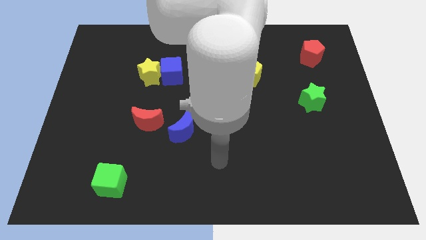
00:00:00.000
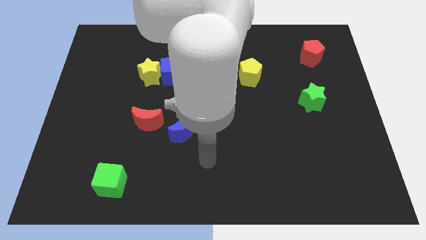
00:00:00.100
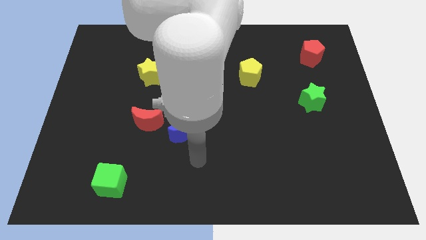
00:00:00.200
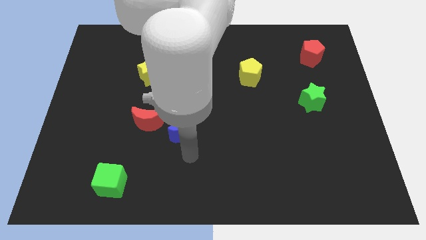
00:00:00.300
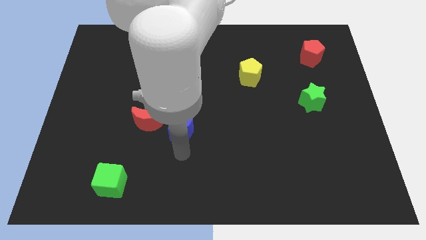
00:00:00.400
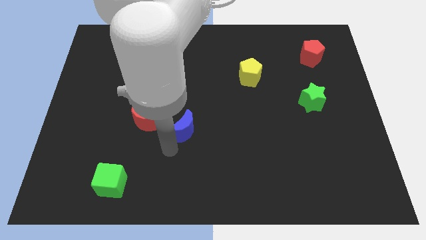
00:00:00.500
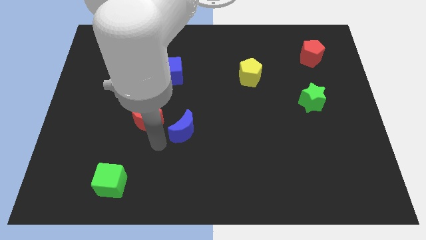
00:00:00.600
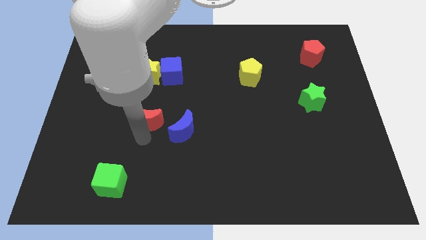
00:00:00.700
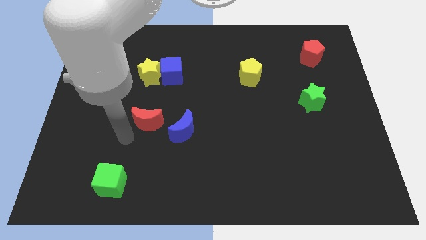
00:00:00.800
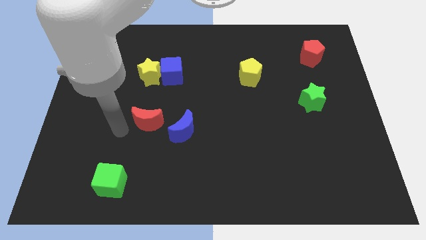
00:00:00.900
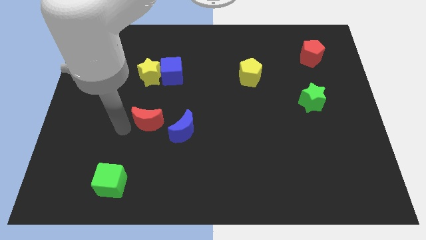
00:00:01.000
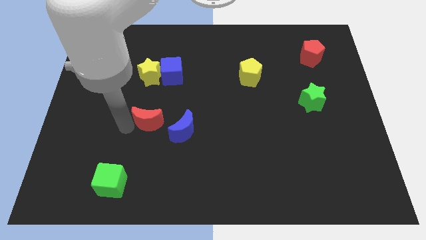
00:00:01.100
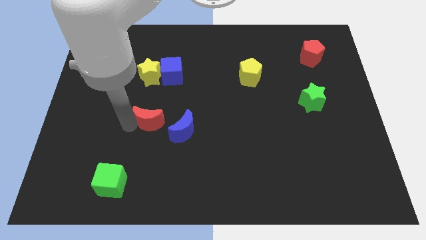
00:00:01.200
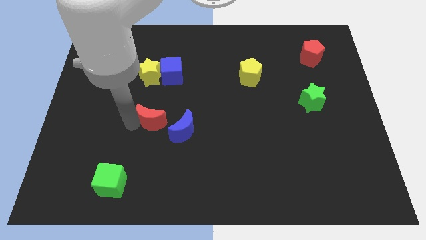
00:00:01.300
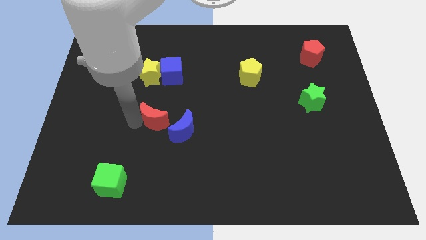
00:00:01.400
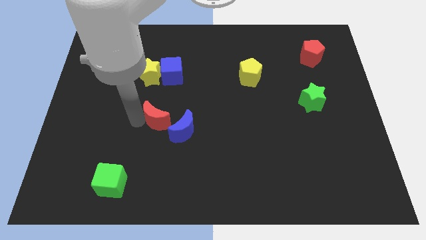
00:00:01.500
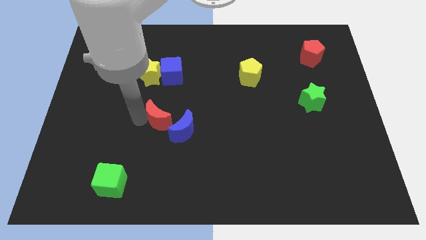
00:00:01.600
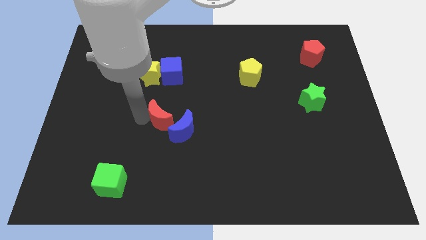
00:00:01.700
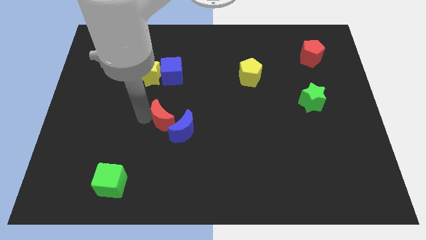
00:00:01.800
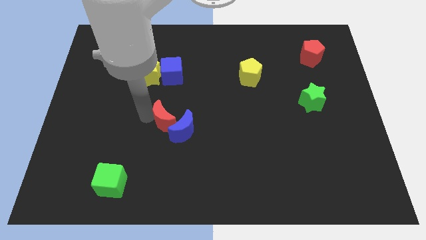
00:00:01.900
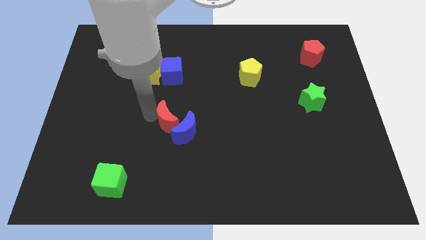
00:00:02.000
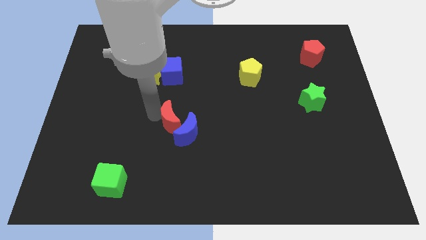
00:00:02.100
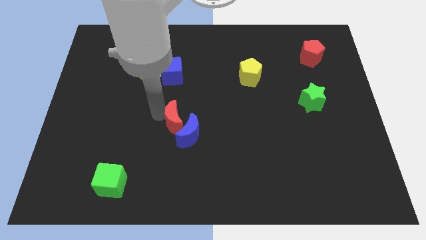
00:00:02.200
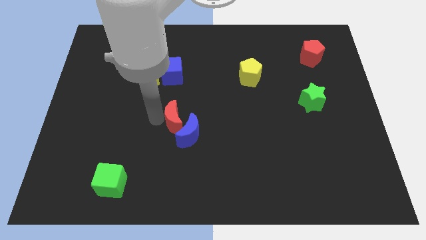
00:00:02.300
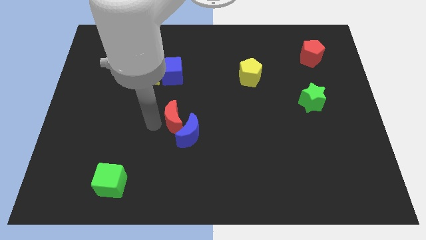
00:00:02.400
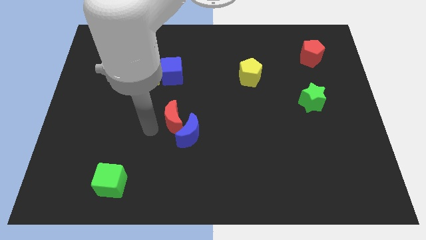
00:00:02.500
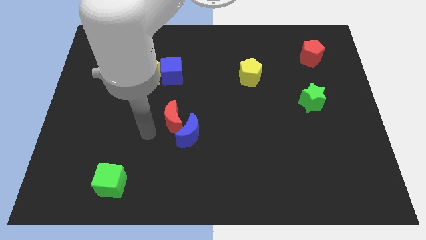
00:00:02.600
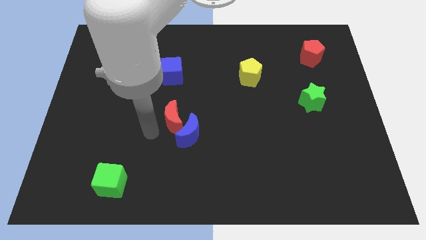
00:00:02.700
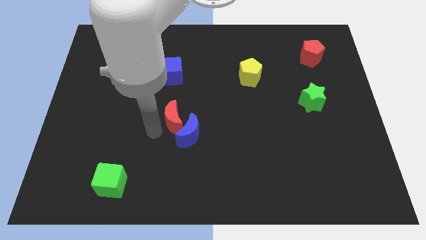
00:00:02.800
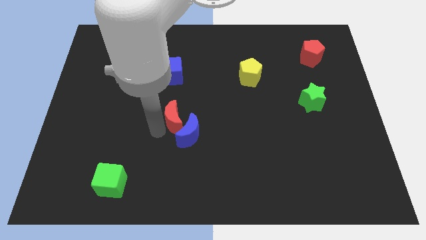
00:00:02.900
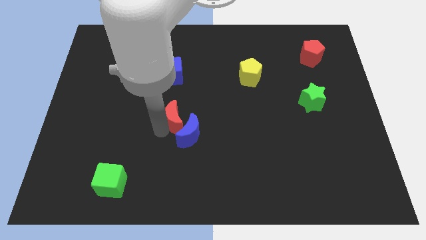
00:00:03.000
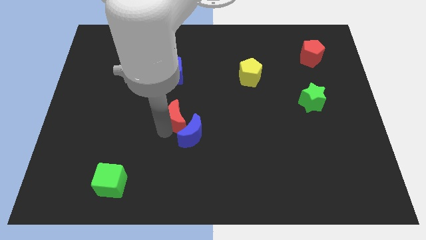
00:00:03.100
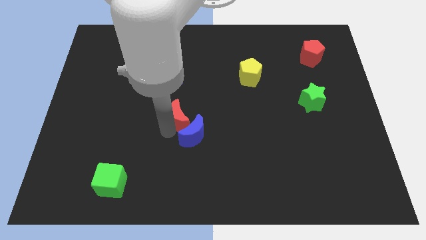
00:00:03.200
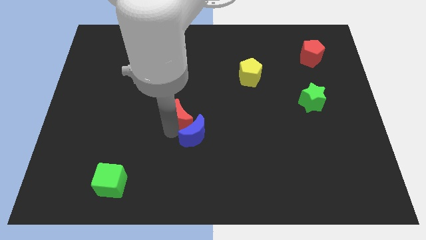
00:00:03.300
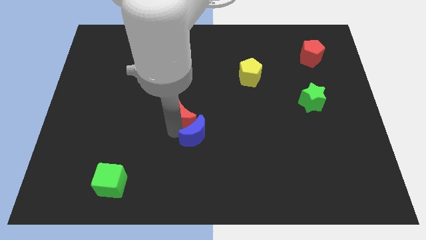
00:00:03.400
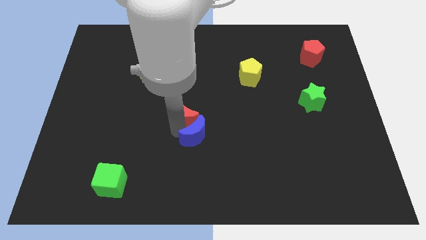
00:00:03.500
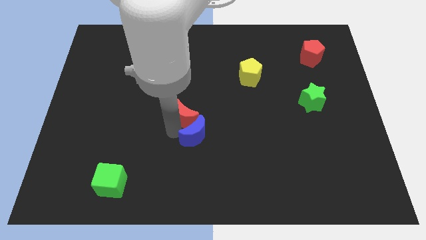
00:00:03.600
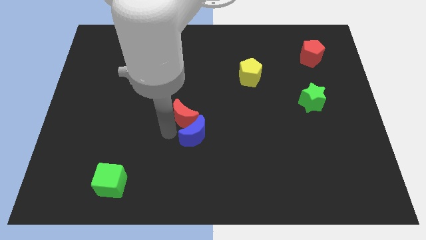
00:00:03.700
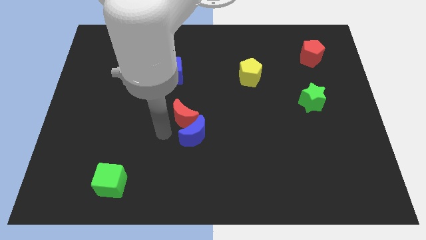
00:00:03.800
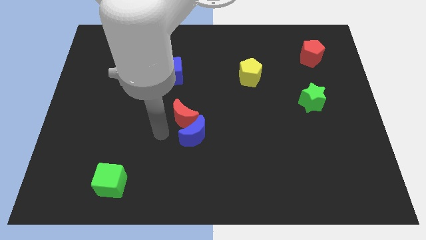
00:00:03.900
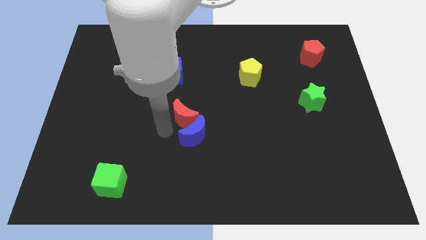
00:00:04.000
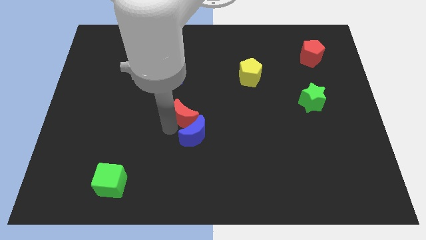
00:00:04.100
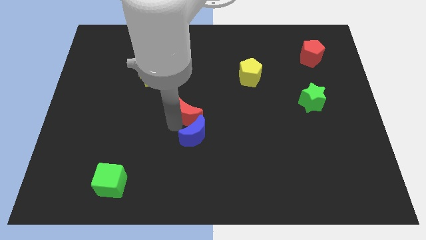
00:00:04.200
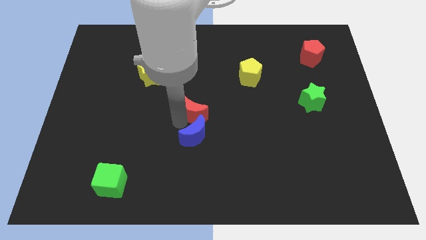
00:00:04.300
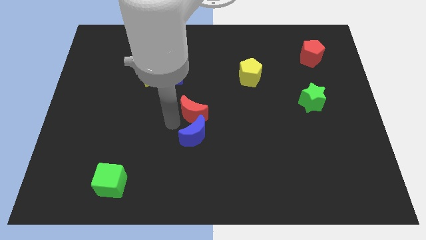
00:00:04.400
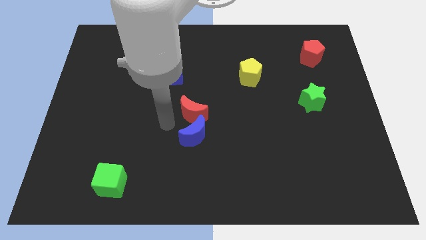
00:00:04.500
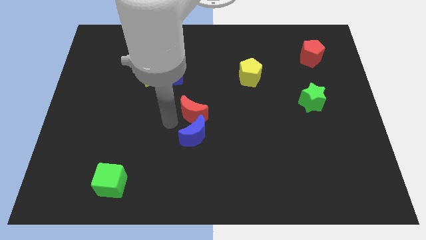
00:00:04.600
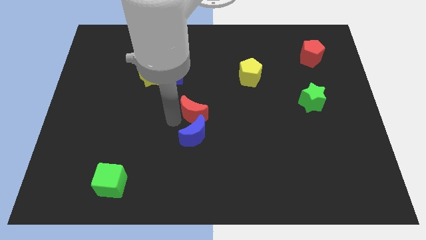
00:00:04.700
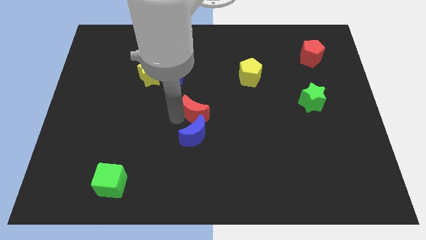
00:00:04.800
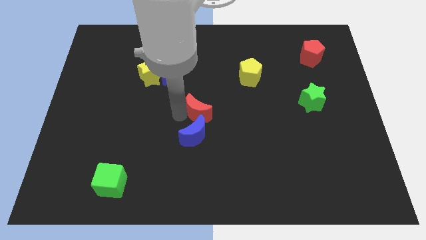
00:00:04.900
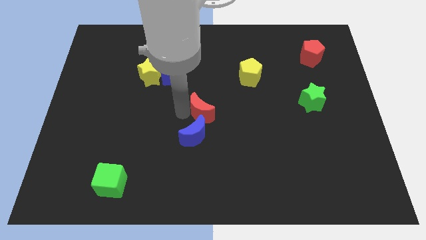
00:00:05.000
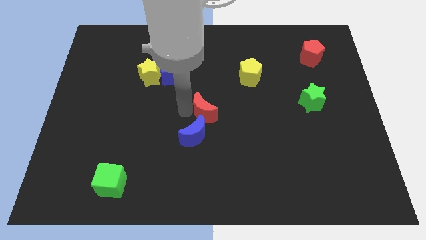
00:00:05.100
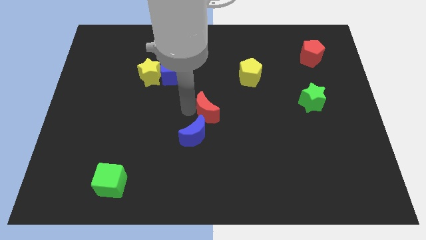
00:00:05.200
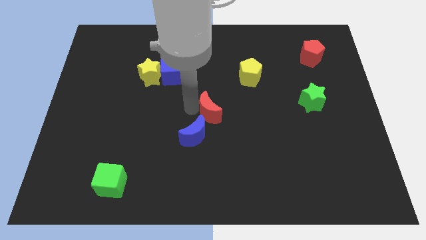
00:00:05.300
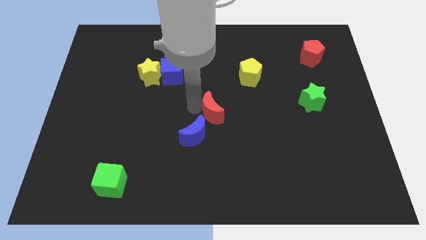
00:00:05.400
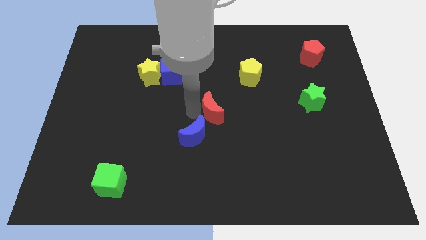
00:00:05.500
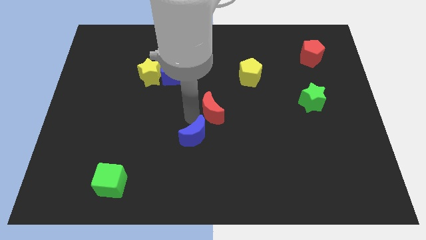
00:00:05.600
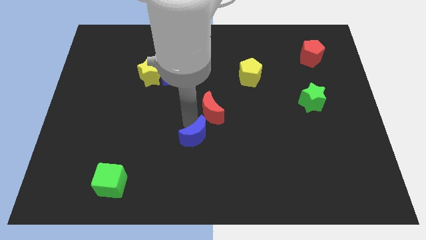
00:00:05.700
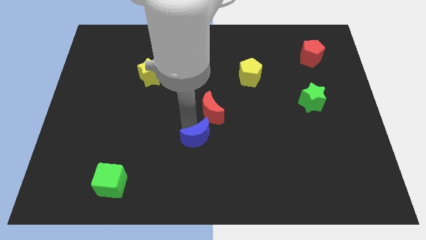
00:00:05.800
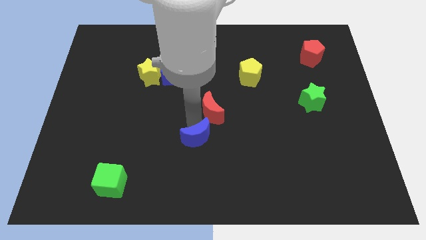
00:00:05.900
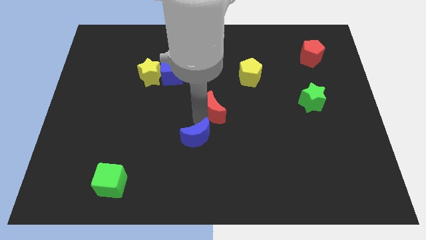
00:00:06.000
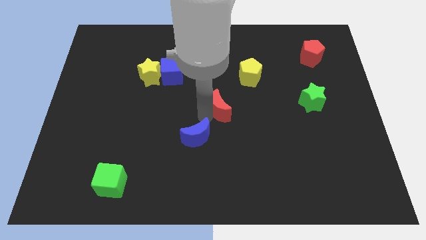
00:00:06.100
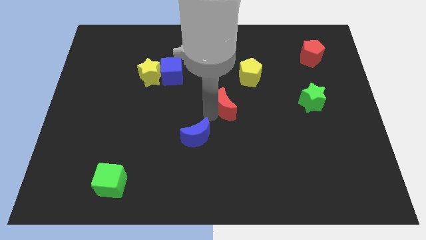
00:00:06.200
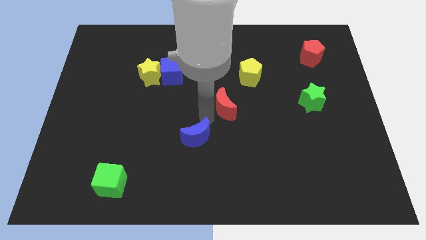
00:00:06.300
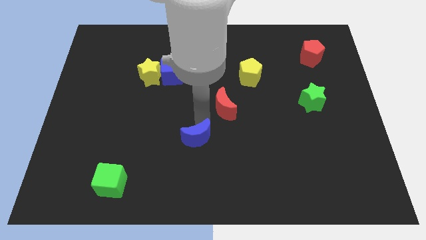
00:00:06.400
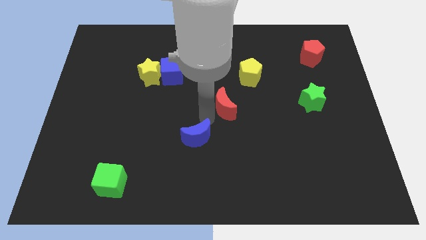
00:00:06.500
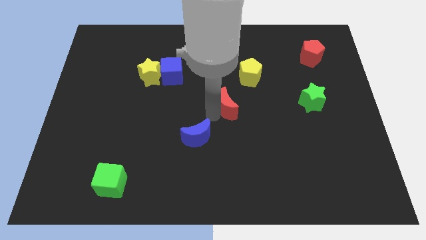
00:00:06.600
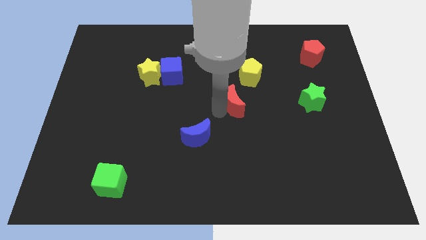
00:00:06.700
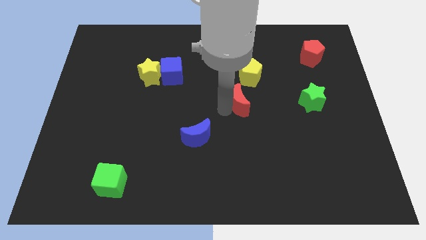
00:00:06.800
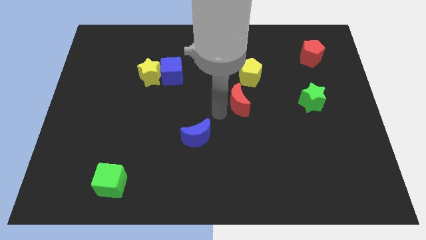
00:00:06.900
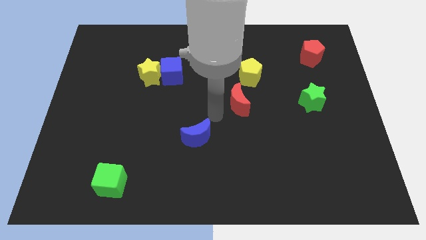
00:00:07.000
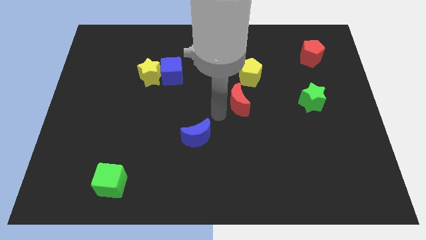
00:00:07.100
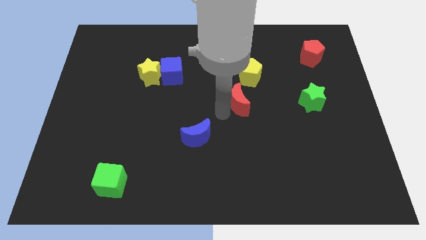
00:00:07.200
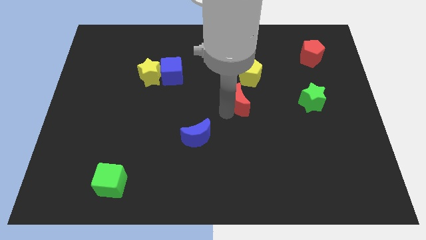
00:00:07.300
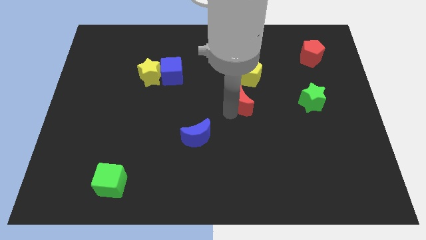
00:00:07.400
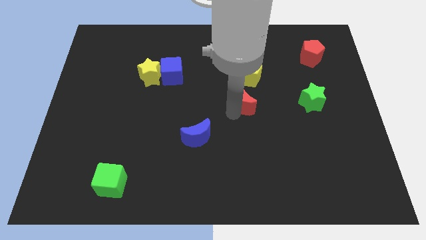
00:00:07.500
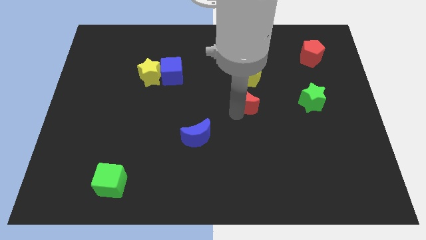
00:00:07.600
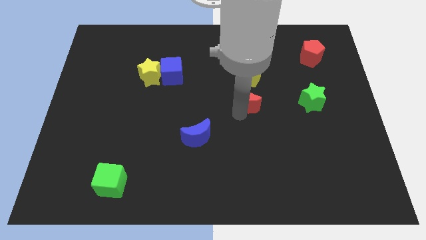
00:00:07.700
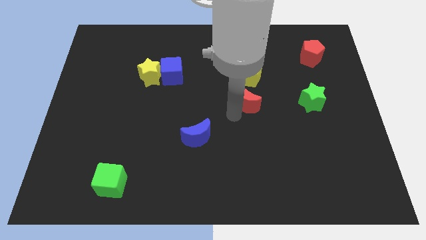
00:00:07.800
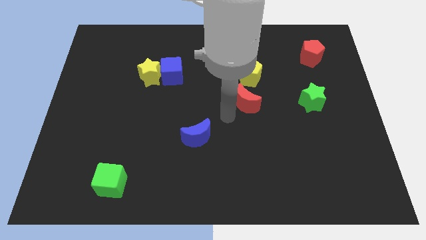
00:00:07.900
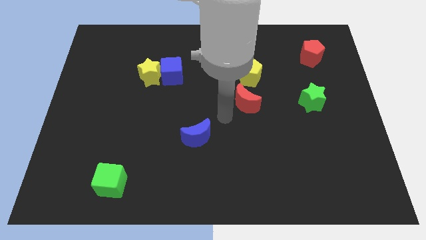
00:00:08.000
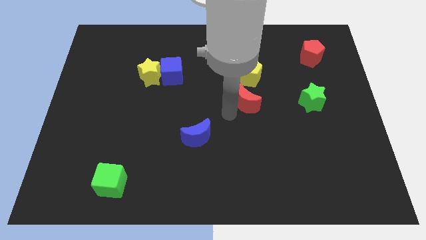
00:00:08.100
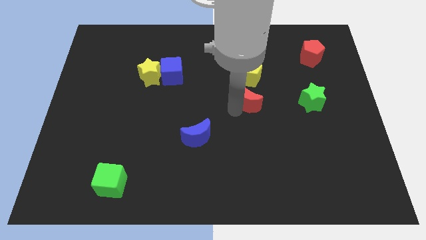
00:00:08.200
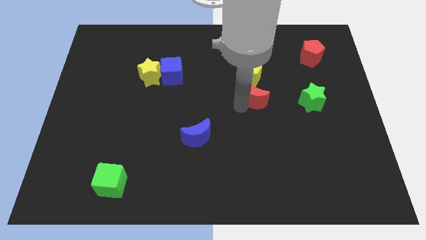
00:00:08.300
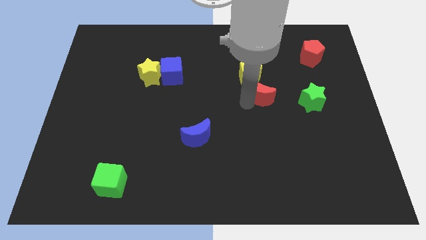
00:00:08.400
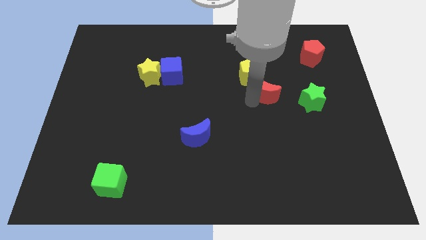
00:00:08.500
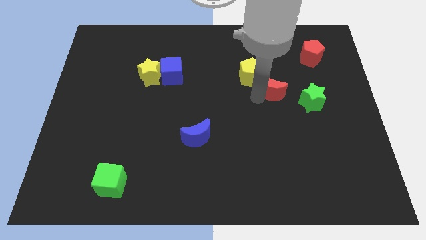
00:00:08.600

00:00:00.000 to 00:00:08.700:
put the red moon diagonally up and to the left of the green star
